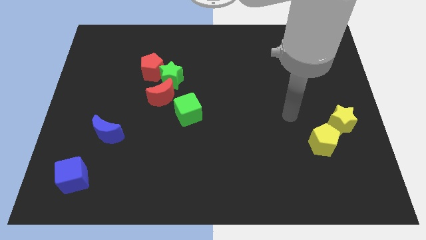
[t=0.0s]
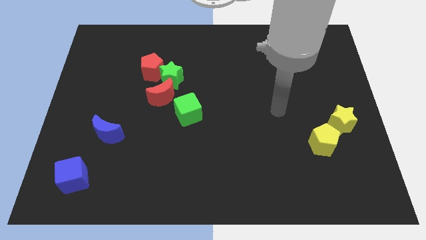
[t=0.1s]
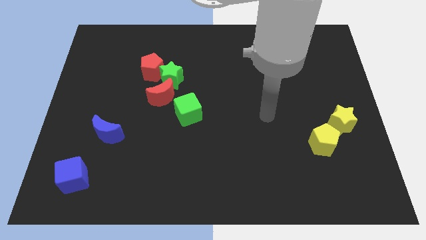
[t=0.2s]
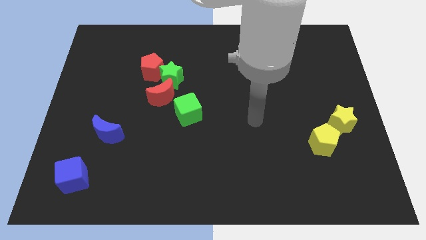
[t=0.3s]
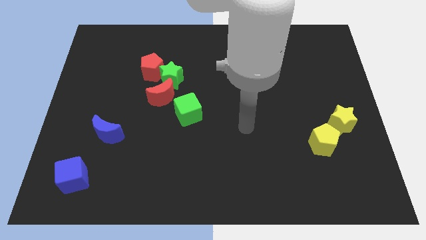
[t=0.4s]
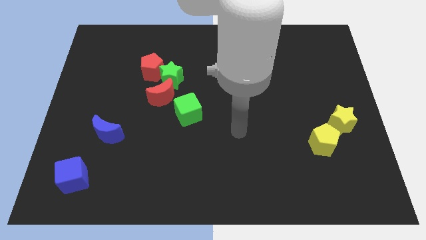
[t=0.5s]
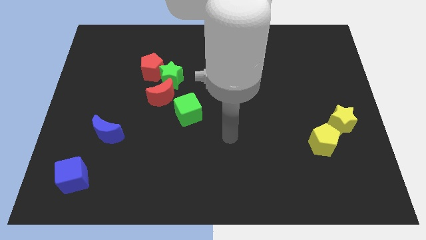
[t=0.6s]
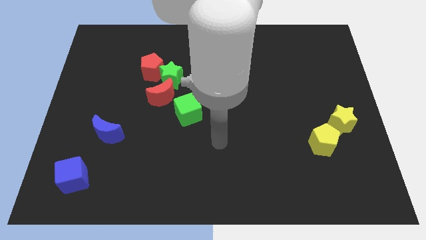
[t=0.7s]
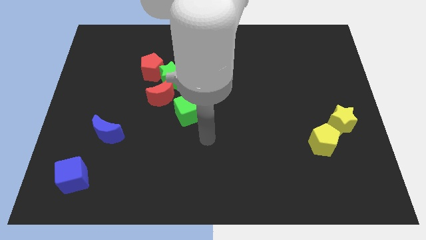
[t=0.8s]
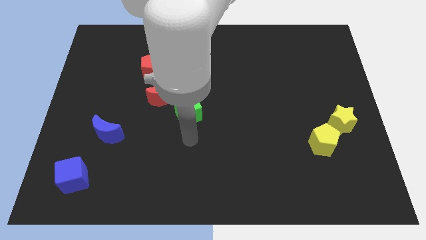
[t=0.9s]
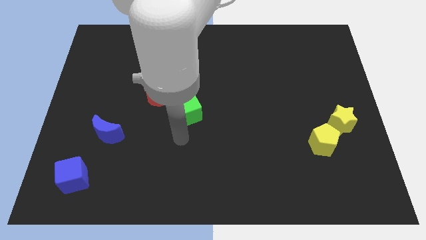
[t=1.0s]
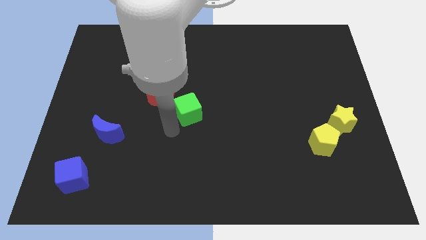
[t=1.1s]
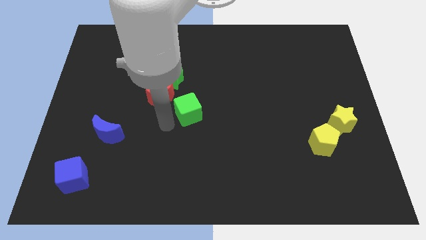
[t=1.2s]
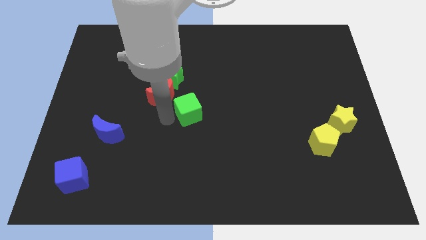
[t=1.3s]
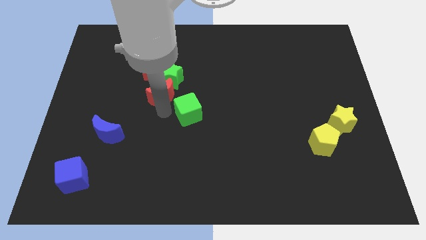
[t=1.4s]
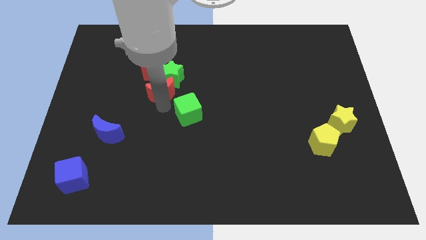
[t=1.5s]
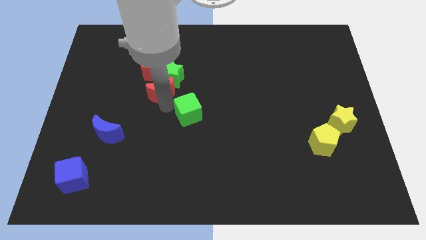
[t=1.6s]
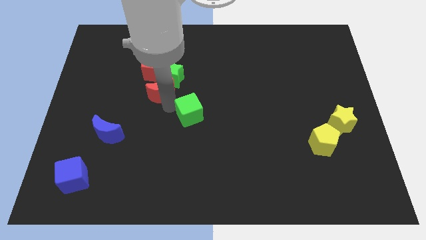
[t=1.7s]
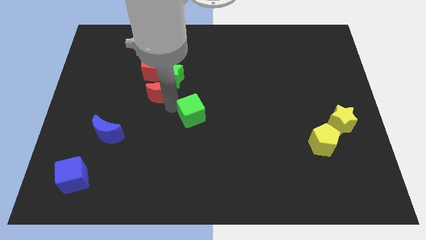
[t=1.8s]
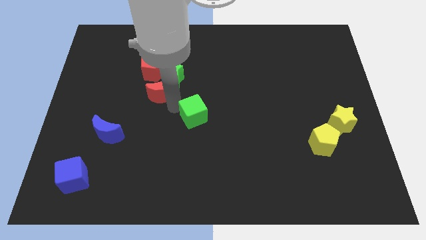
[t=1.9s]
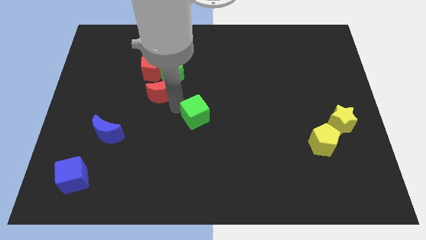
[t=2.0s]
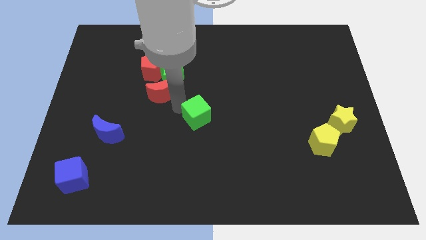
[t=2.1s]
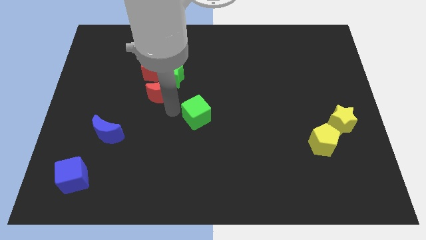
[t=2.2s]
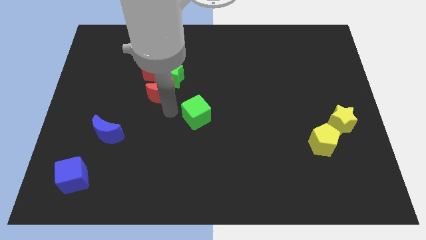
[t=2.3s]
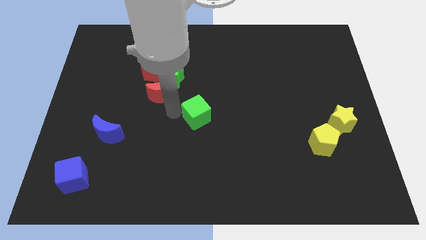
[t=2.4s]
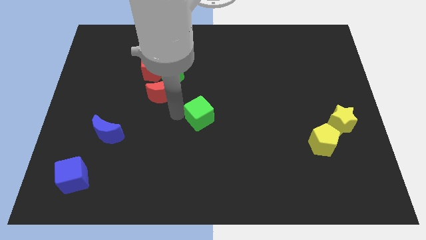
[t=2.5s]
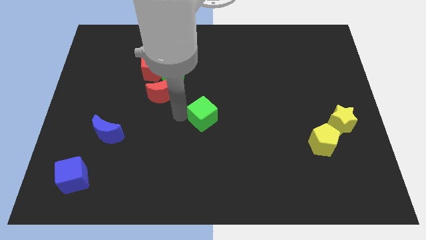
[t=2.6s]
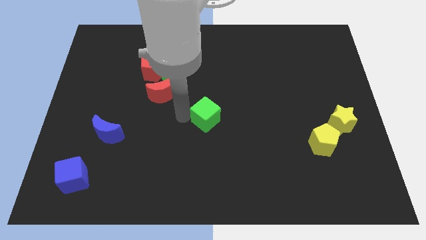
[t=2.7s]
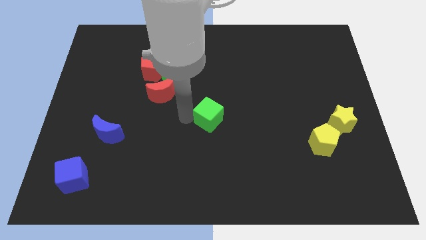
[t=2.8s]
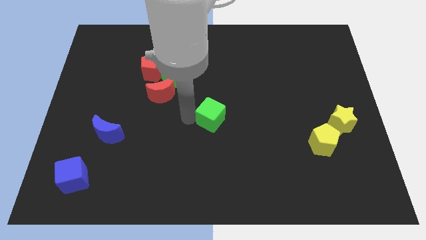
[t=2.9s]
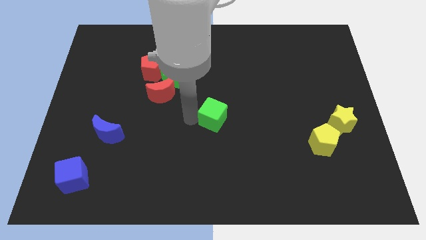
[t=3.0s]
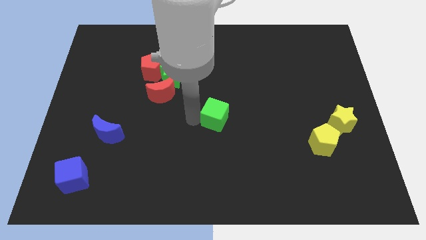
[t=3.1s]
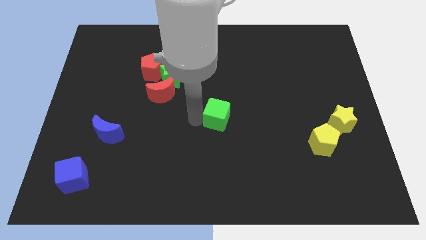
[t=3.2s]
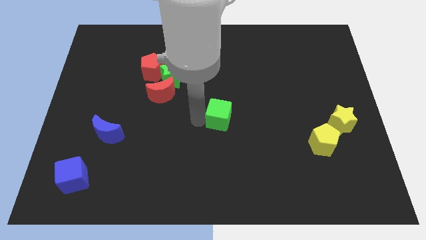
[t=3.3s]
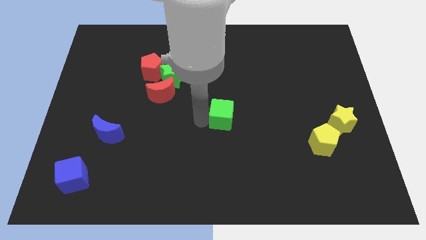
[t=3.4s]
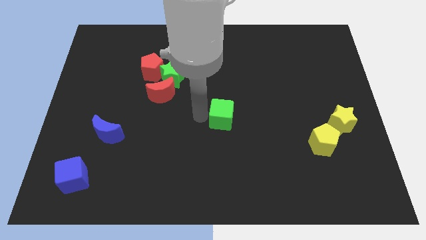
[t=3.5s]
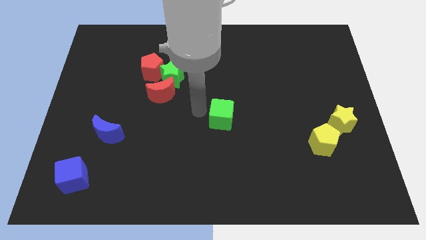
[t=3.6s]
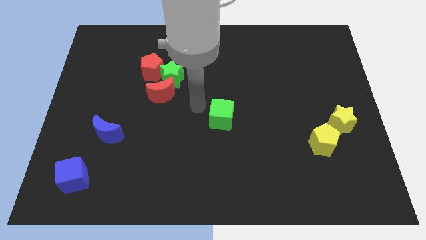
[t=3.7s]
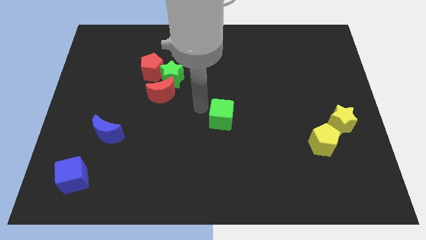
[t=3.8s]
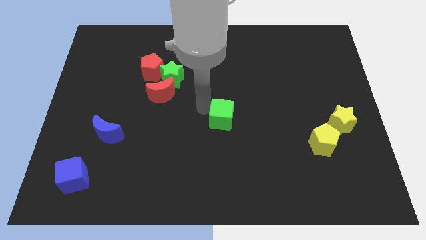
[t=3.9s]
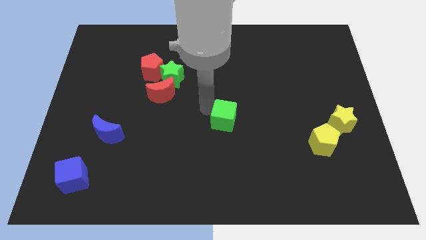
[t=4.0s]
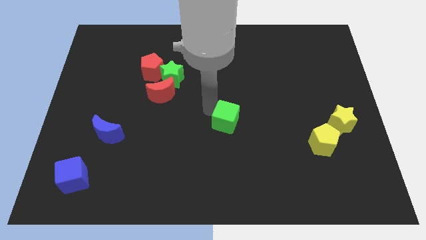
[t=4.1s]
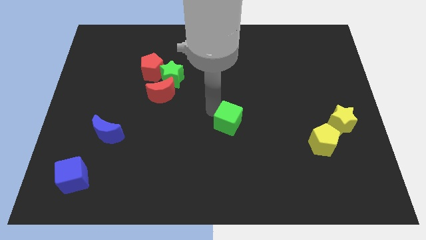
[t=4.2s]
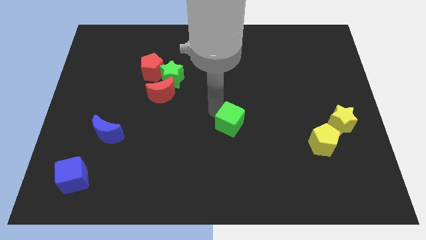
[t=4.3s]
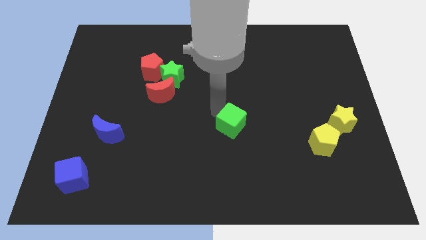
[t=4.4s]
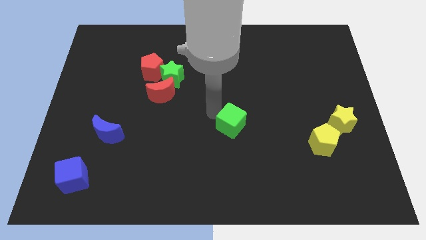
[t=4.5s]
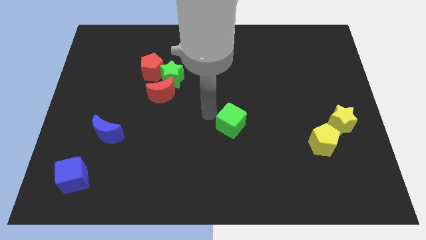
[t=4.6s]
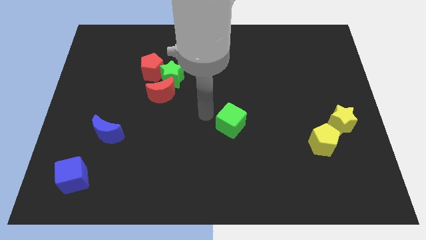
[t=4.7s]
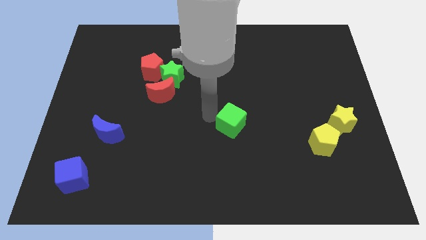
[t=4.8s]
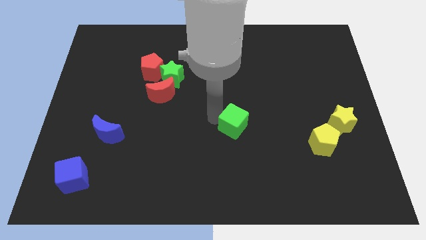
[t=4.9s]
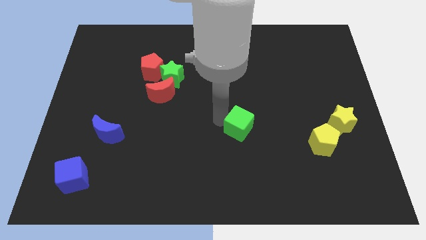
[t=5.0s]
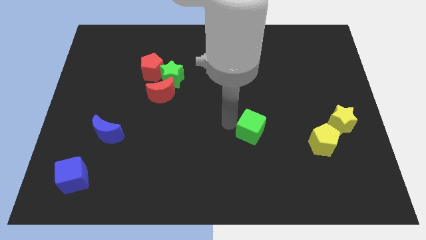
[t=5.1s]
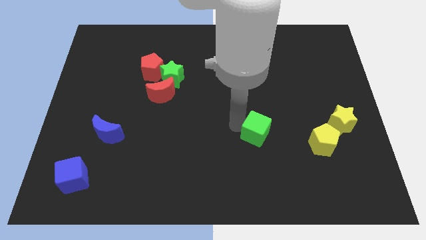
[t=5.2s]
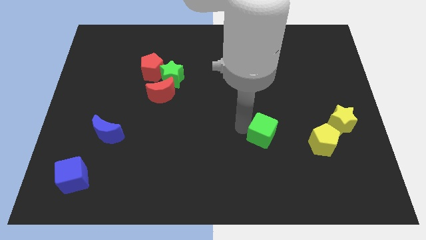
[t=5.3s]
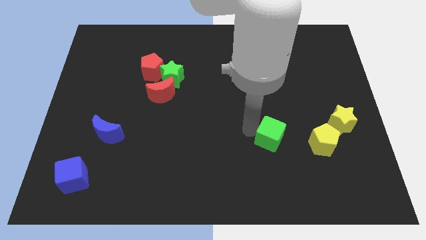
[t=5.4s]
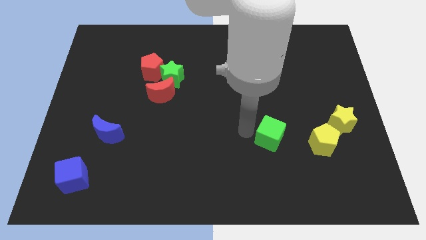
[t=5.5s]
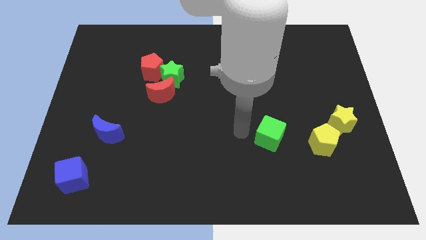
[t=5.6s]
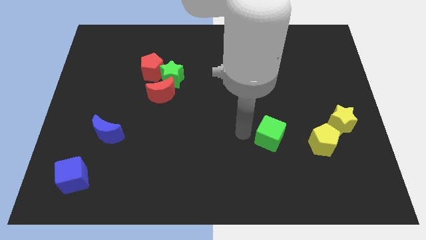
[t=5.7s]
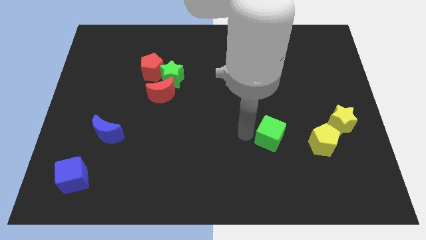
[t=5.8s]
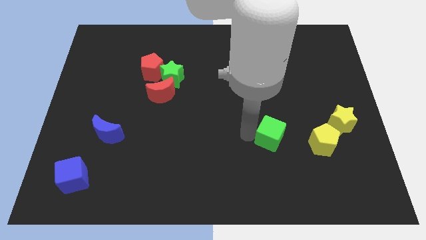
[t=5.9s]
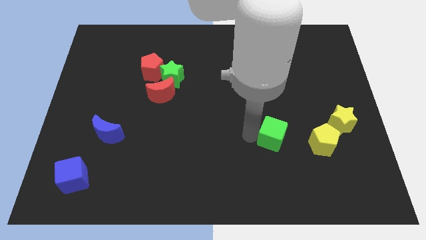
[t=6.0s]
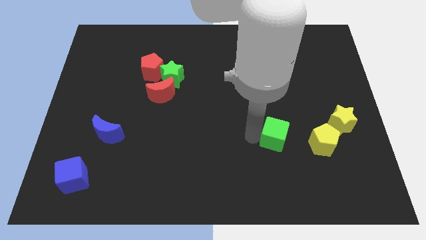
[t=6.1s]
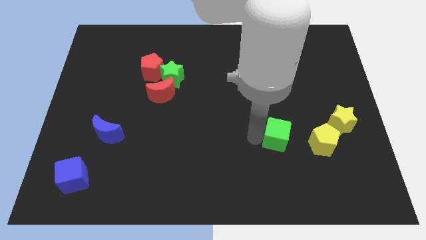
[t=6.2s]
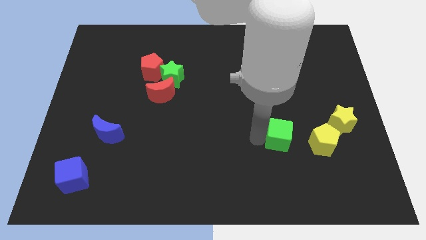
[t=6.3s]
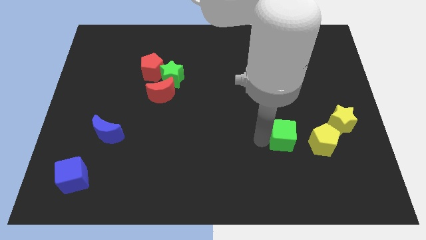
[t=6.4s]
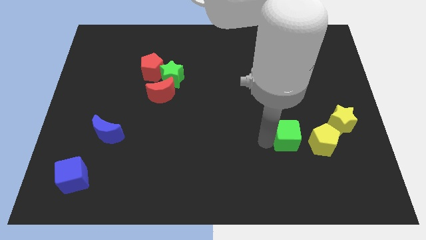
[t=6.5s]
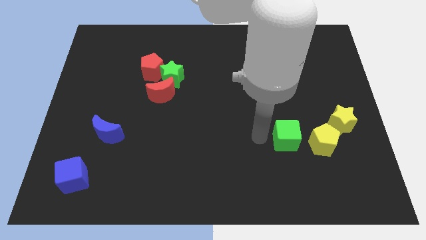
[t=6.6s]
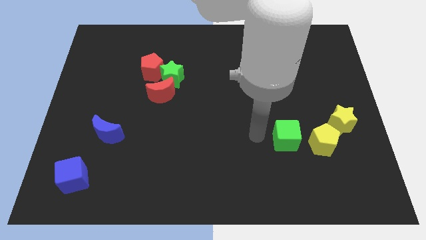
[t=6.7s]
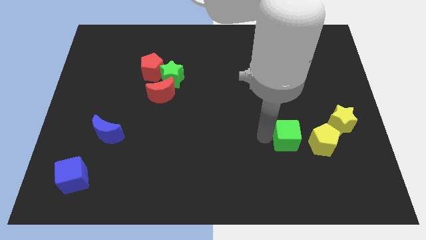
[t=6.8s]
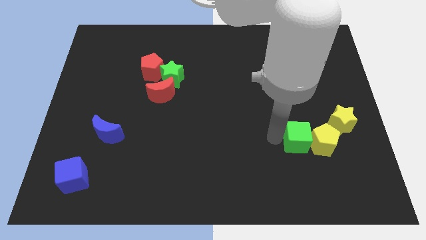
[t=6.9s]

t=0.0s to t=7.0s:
put the green cube next to the yellow pentagon

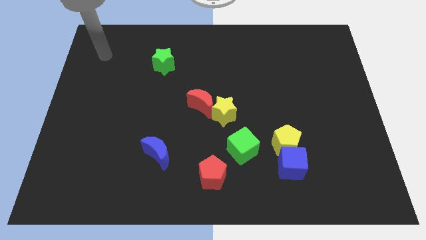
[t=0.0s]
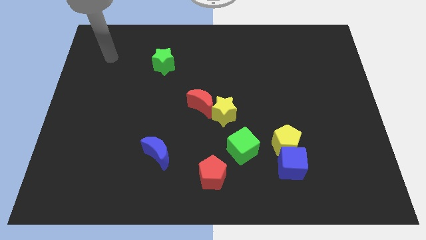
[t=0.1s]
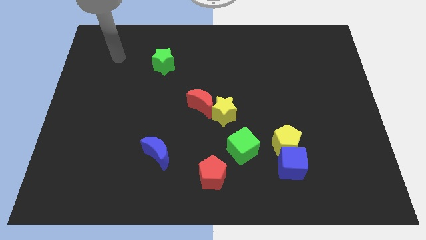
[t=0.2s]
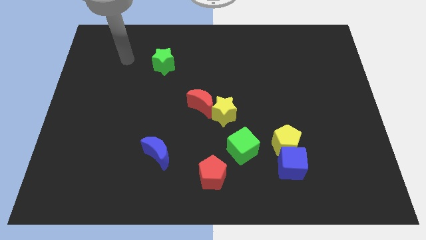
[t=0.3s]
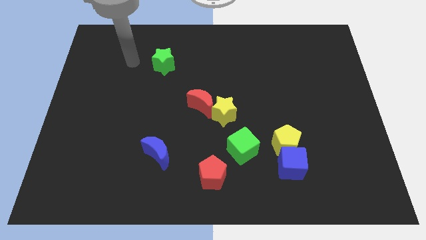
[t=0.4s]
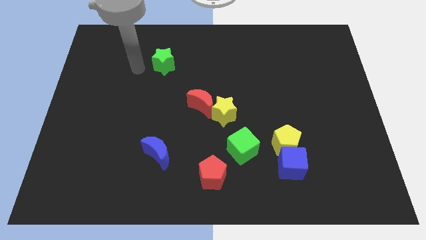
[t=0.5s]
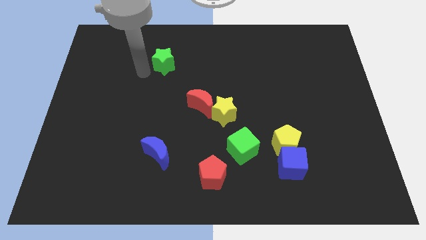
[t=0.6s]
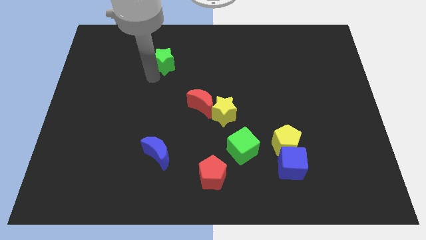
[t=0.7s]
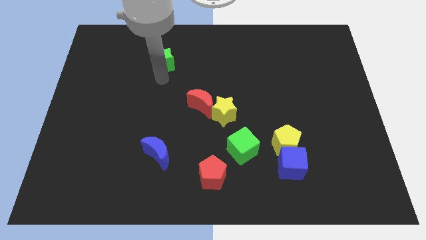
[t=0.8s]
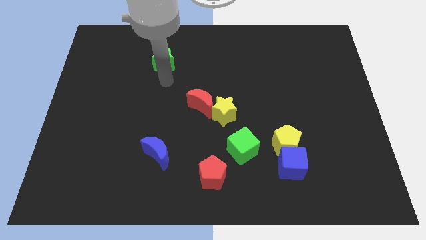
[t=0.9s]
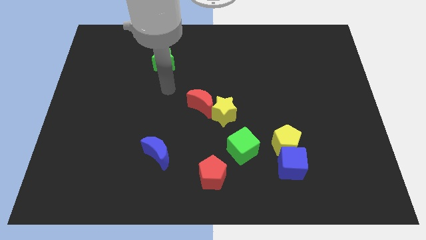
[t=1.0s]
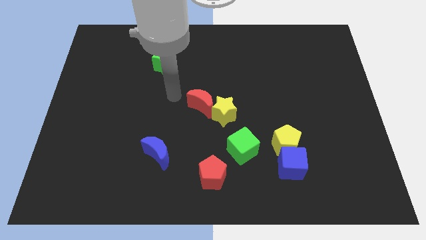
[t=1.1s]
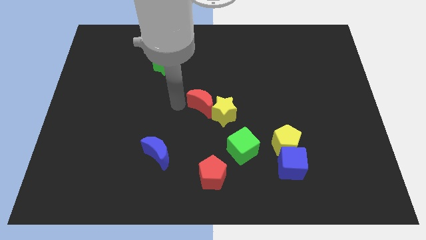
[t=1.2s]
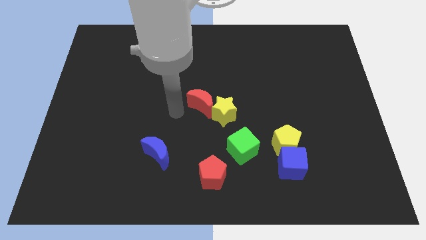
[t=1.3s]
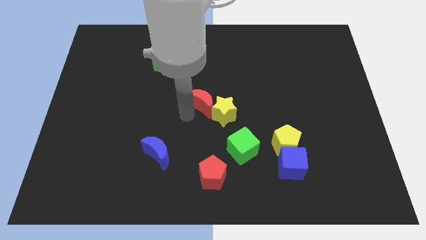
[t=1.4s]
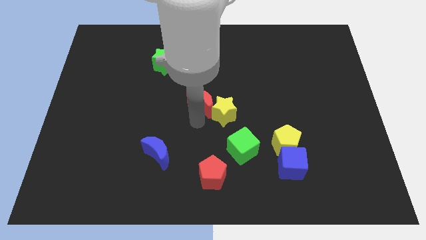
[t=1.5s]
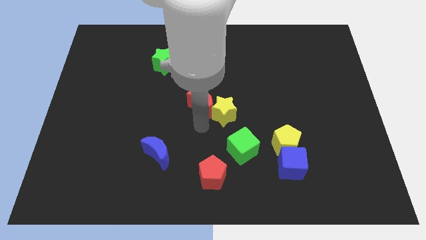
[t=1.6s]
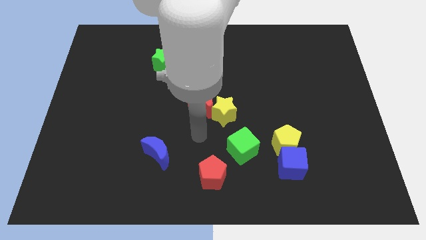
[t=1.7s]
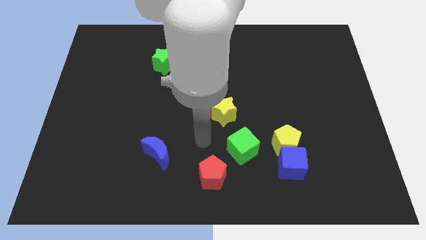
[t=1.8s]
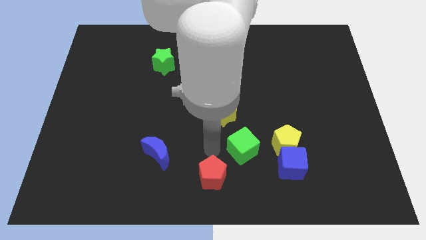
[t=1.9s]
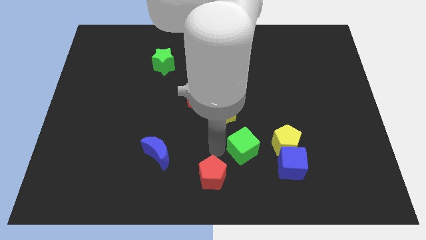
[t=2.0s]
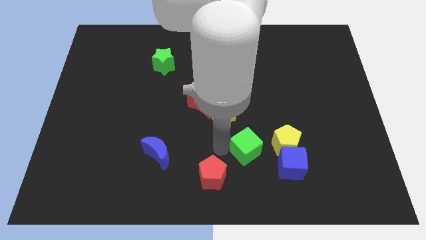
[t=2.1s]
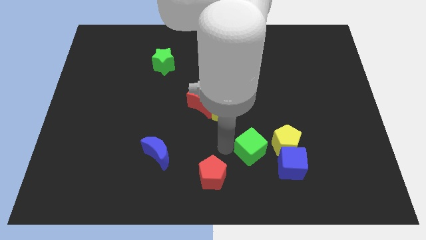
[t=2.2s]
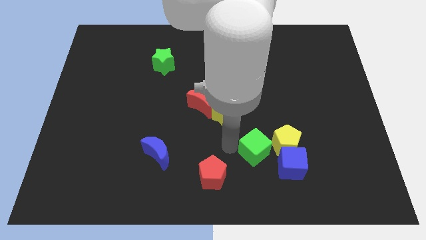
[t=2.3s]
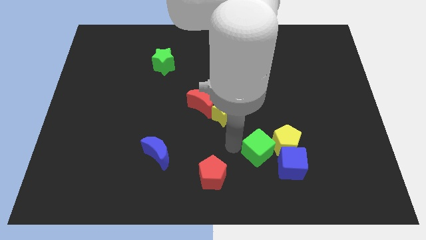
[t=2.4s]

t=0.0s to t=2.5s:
put the green cube close to the yellow pentagon
